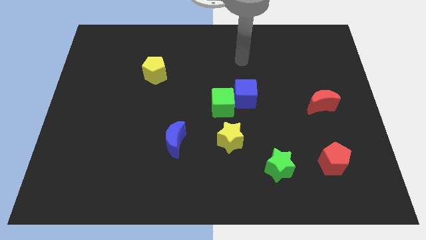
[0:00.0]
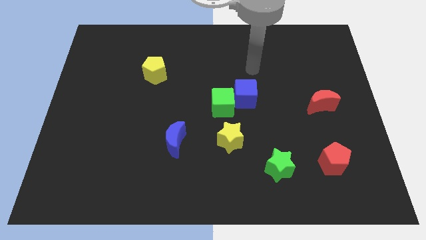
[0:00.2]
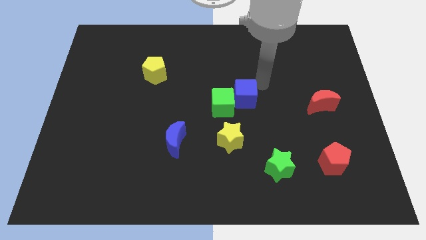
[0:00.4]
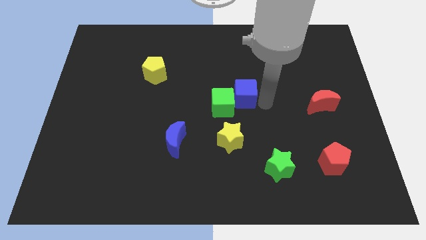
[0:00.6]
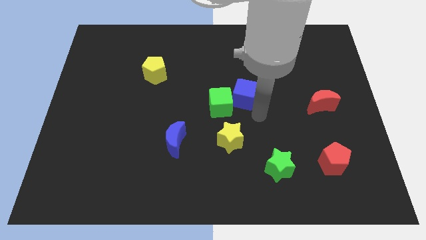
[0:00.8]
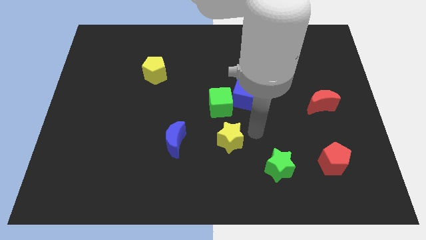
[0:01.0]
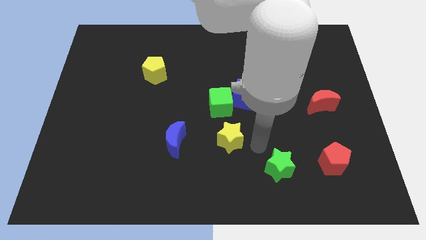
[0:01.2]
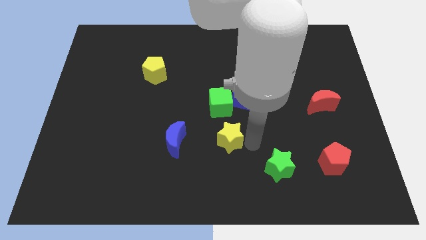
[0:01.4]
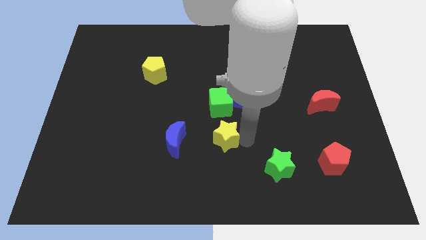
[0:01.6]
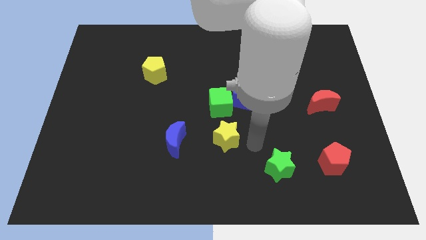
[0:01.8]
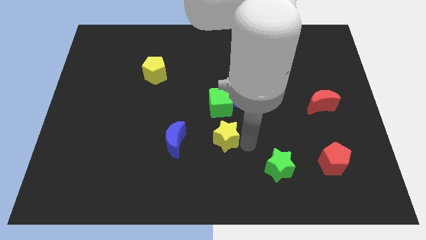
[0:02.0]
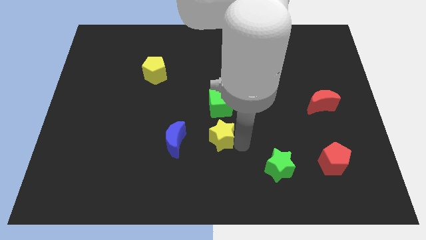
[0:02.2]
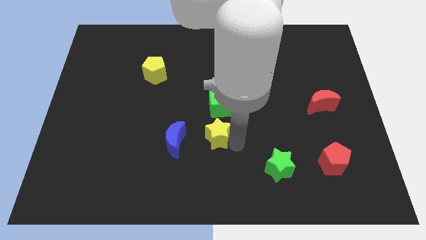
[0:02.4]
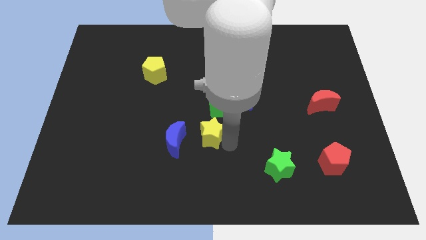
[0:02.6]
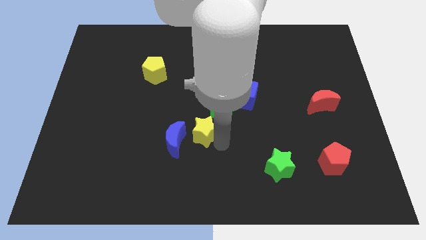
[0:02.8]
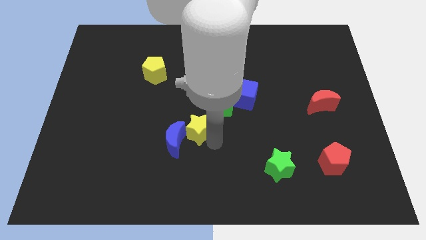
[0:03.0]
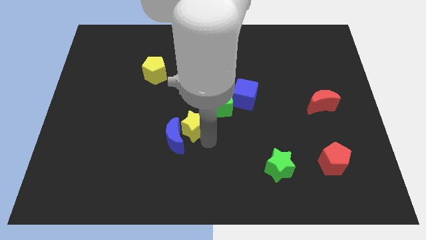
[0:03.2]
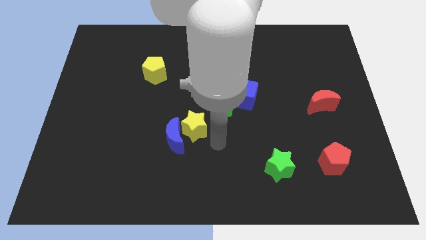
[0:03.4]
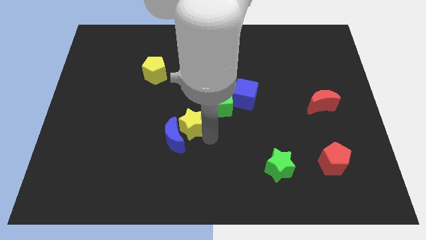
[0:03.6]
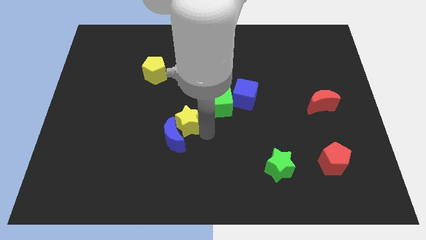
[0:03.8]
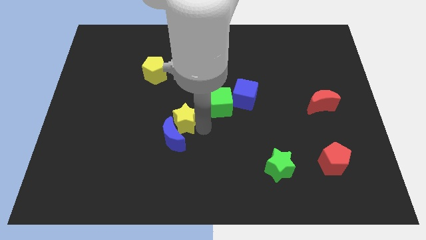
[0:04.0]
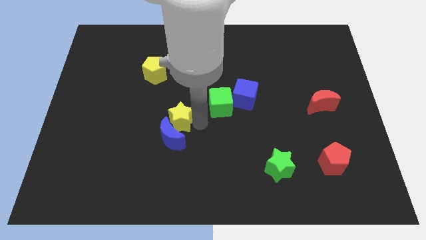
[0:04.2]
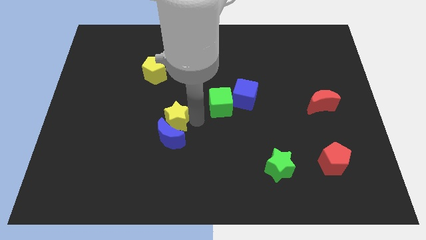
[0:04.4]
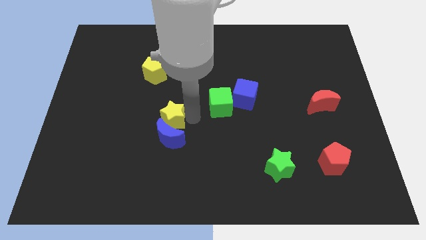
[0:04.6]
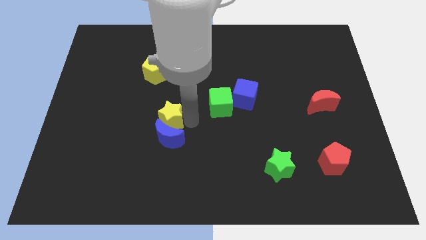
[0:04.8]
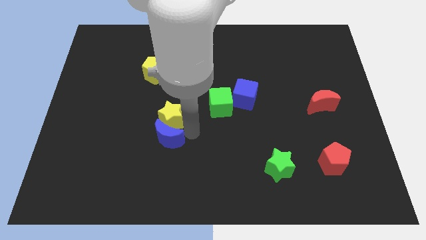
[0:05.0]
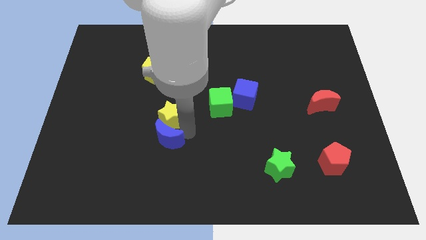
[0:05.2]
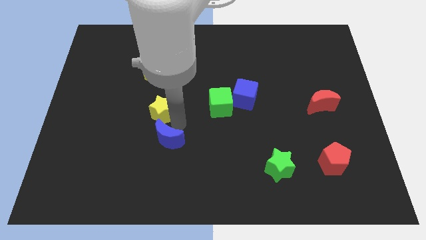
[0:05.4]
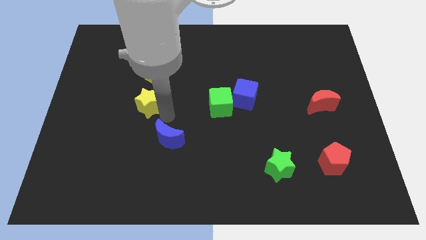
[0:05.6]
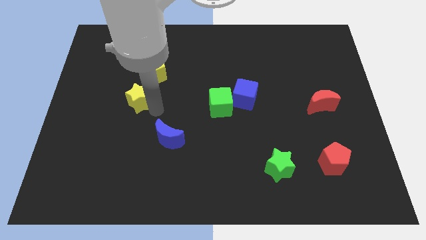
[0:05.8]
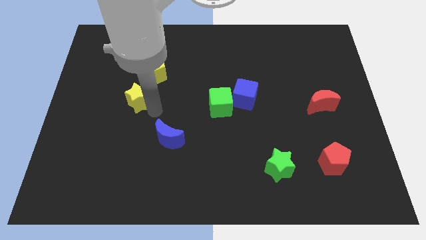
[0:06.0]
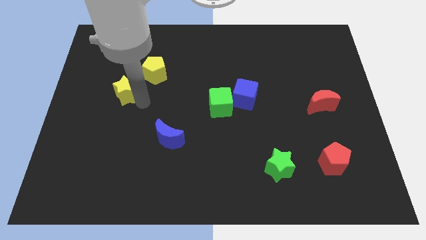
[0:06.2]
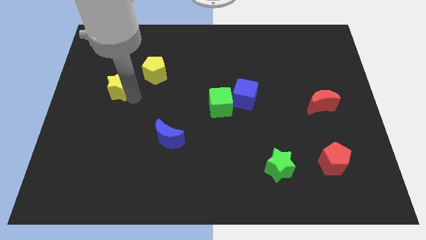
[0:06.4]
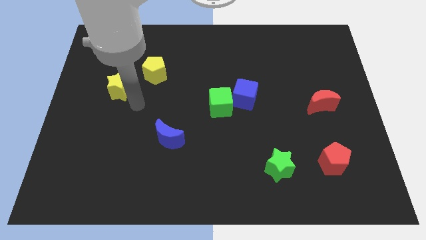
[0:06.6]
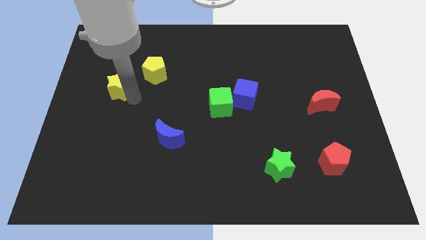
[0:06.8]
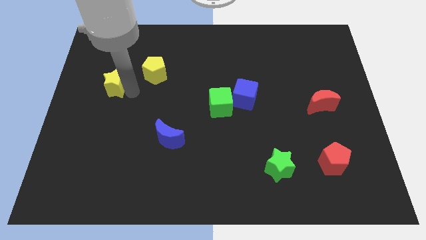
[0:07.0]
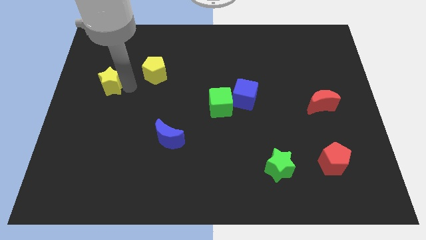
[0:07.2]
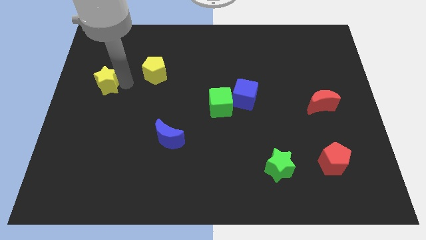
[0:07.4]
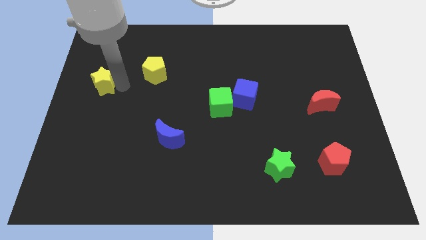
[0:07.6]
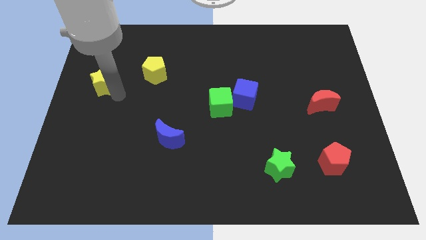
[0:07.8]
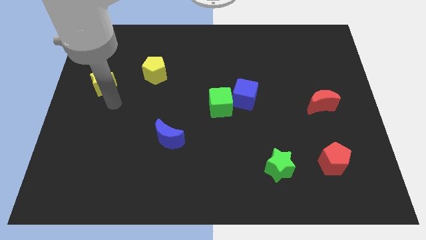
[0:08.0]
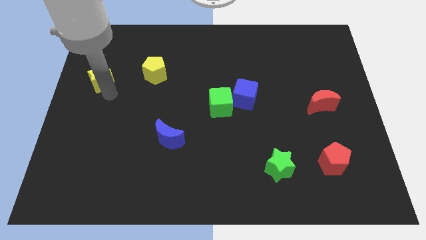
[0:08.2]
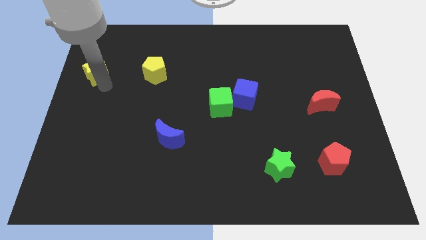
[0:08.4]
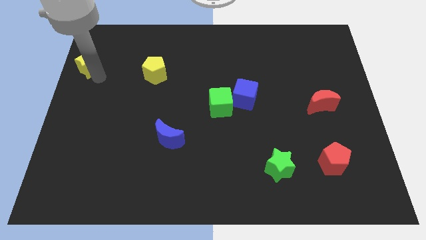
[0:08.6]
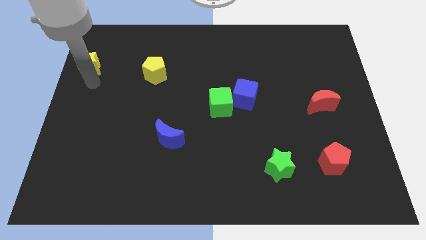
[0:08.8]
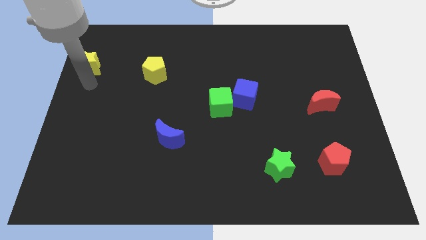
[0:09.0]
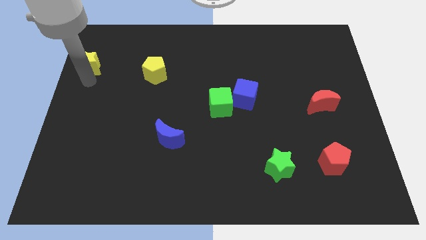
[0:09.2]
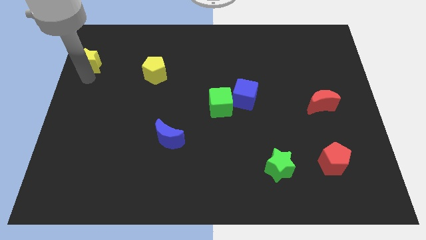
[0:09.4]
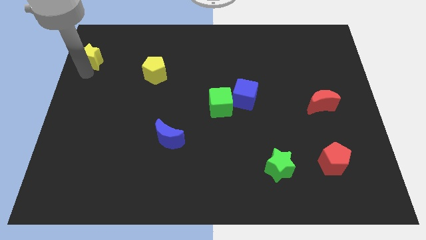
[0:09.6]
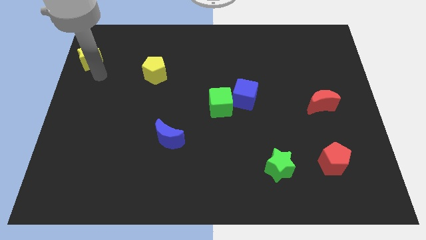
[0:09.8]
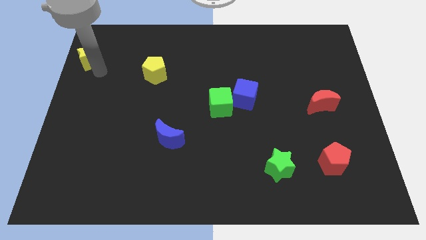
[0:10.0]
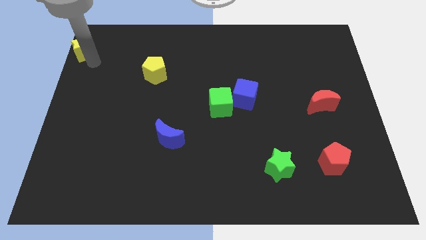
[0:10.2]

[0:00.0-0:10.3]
push the yellow star to the top left corner

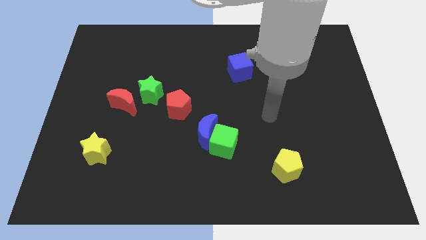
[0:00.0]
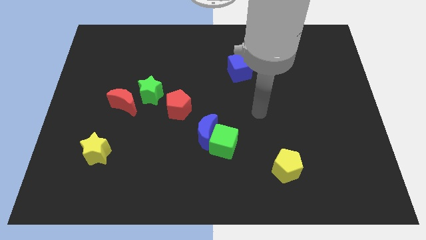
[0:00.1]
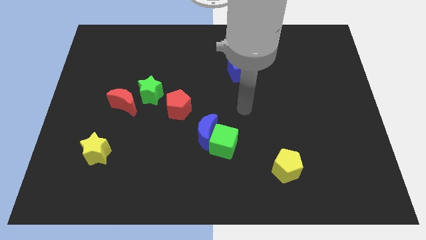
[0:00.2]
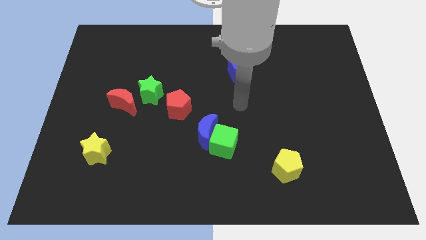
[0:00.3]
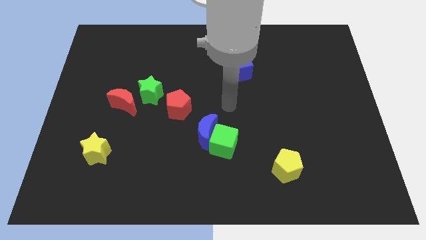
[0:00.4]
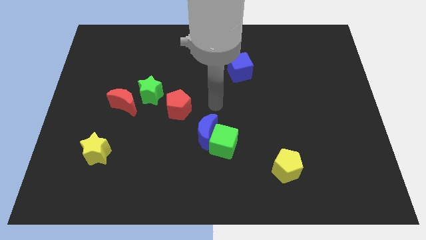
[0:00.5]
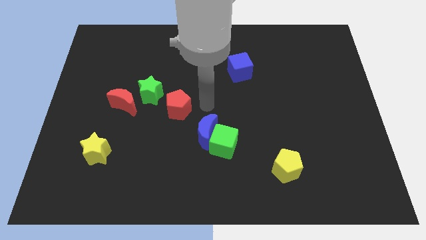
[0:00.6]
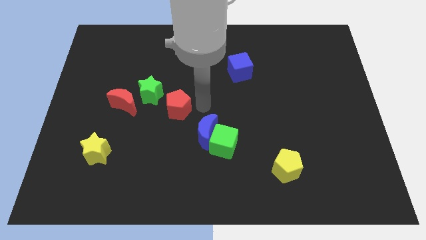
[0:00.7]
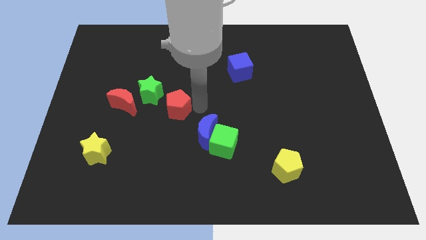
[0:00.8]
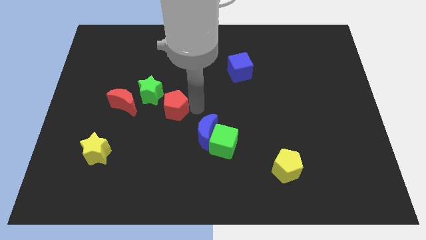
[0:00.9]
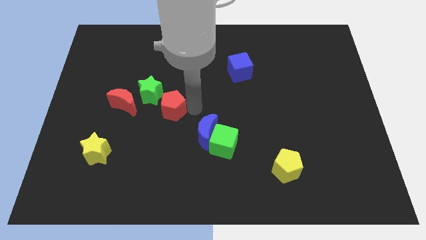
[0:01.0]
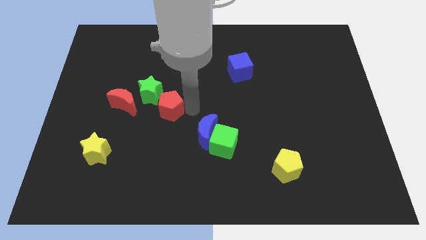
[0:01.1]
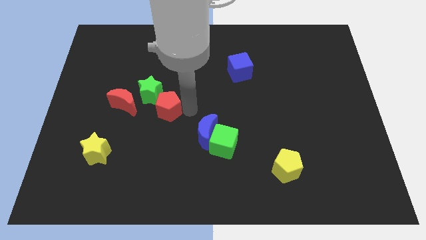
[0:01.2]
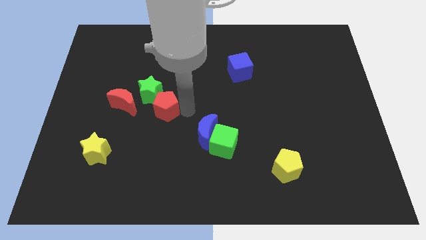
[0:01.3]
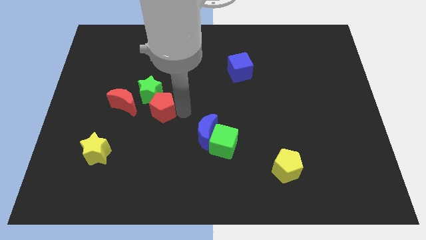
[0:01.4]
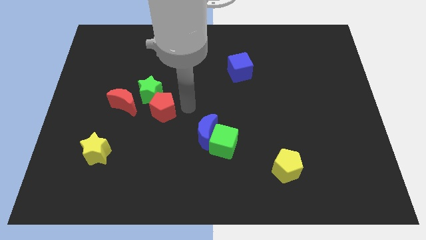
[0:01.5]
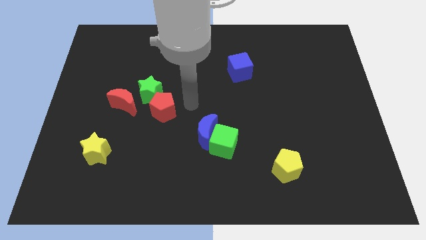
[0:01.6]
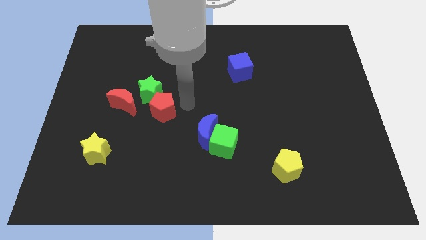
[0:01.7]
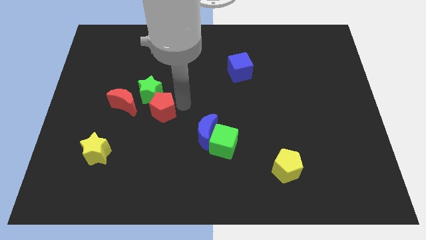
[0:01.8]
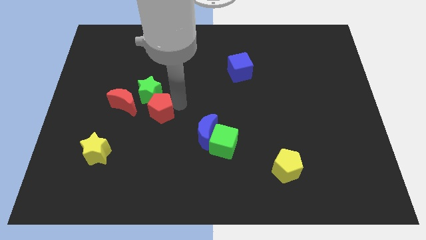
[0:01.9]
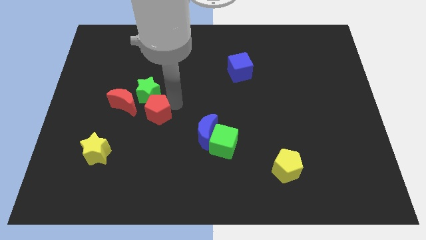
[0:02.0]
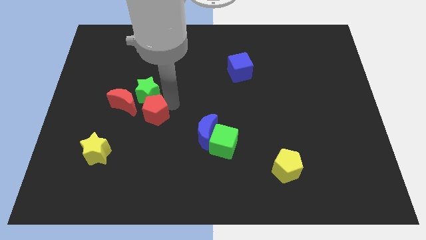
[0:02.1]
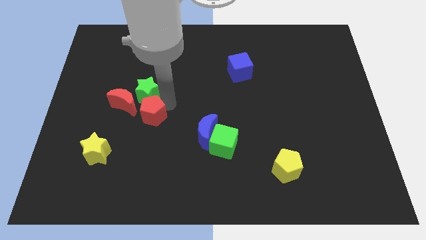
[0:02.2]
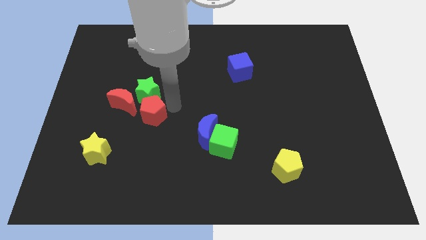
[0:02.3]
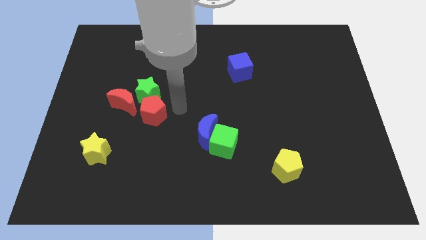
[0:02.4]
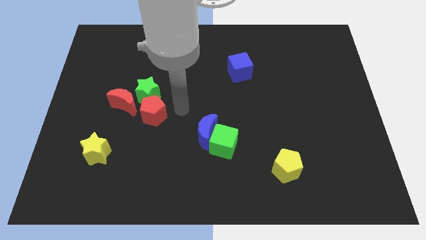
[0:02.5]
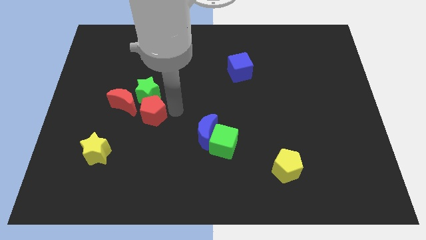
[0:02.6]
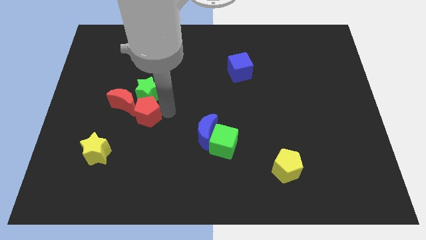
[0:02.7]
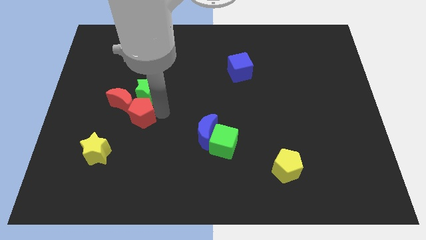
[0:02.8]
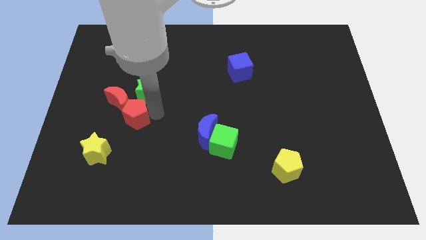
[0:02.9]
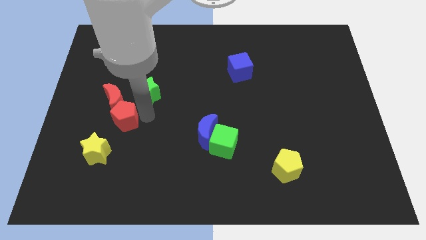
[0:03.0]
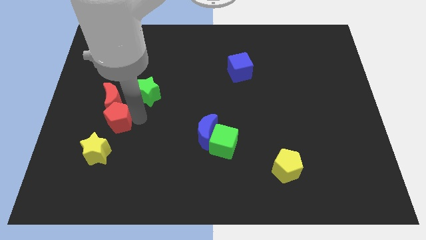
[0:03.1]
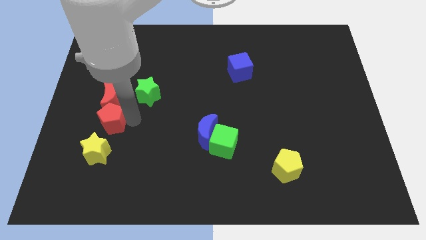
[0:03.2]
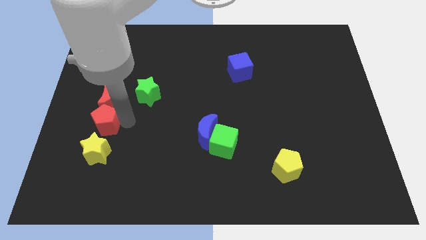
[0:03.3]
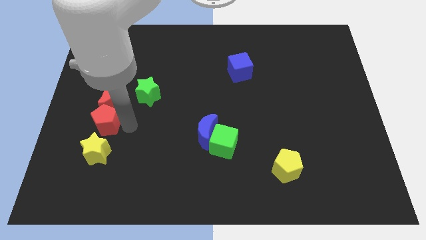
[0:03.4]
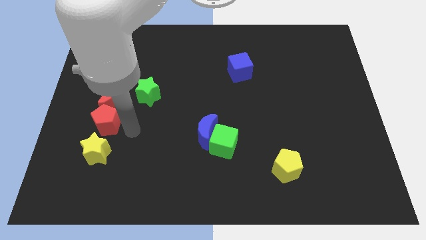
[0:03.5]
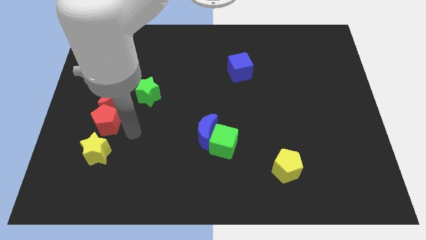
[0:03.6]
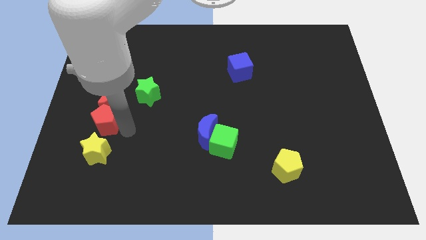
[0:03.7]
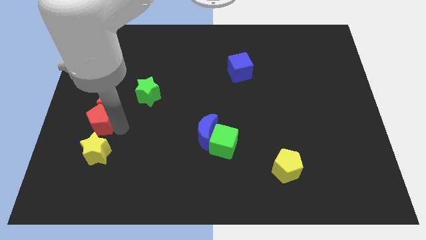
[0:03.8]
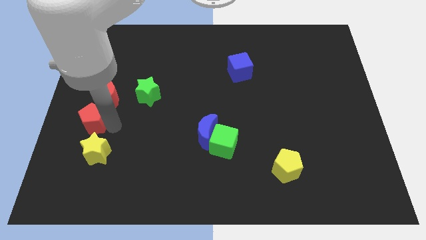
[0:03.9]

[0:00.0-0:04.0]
move the red pentagon to the left side of the board
